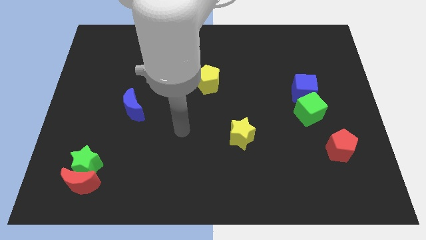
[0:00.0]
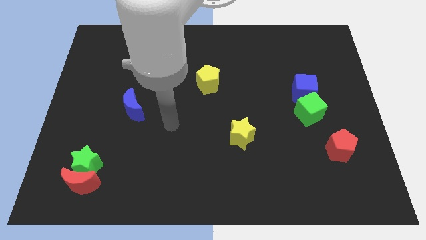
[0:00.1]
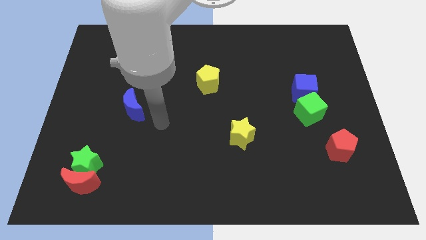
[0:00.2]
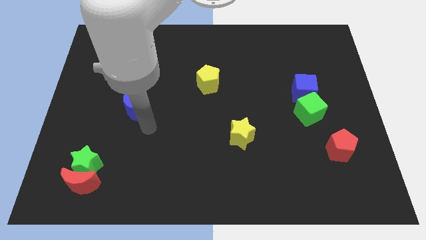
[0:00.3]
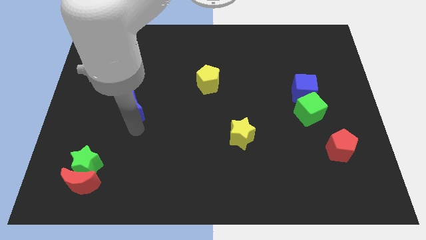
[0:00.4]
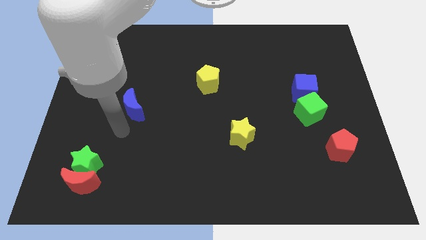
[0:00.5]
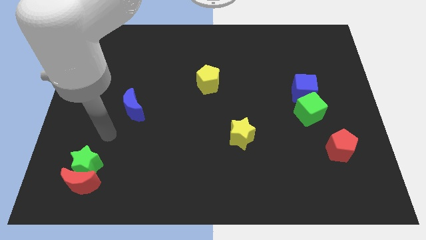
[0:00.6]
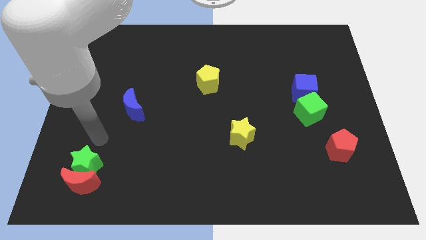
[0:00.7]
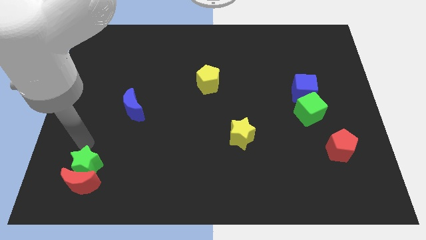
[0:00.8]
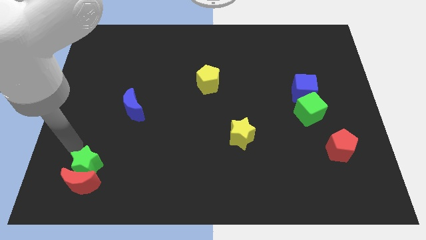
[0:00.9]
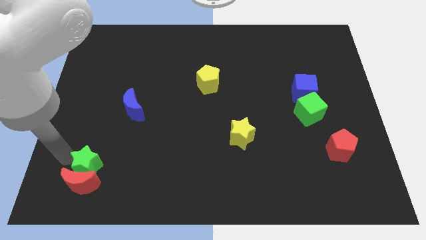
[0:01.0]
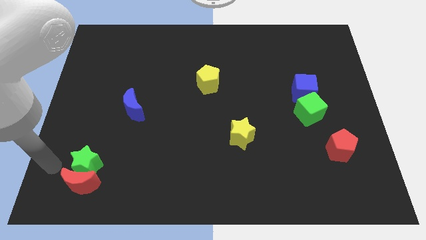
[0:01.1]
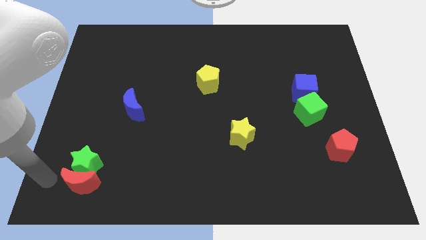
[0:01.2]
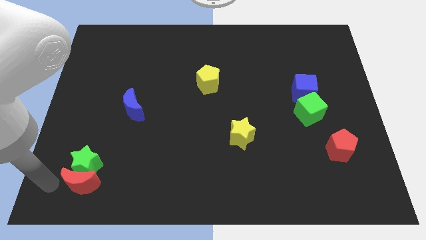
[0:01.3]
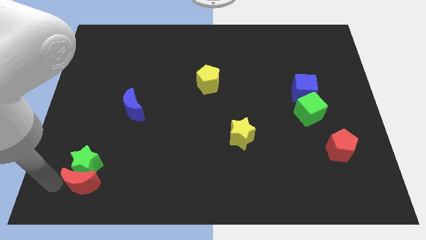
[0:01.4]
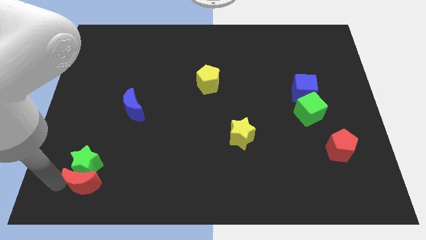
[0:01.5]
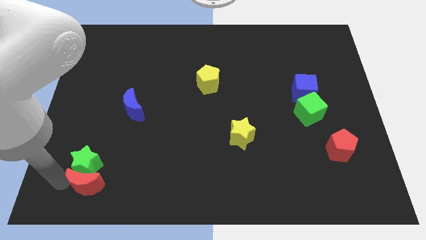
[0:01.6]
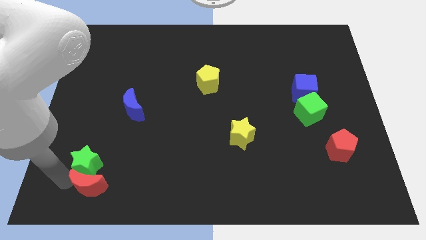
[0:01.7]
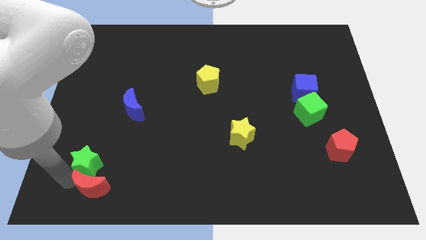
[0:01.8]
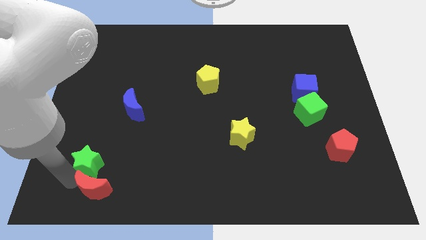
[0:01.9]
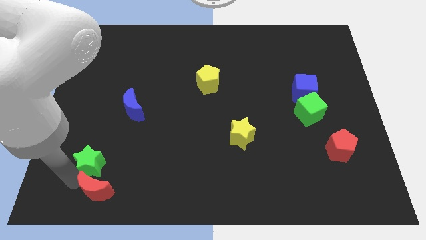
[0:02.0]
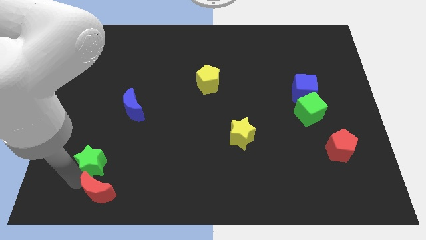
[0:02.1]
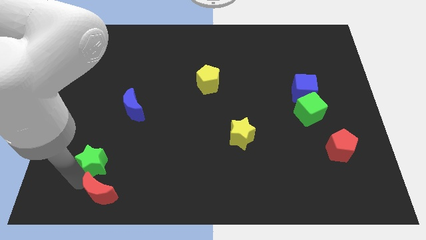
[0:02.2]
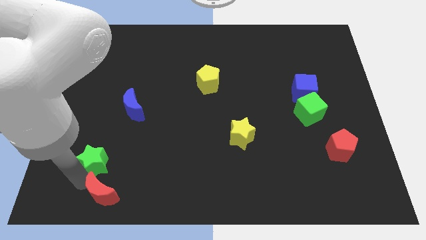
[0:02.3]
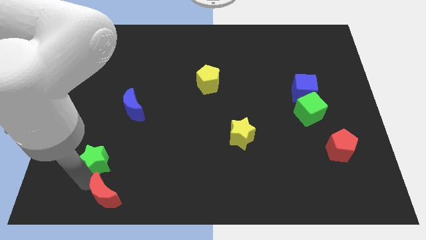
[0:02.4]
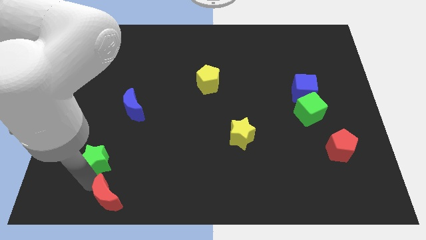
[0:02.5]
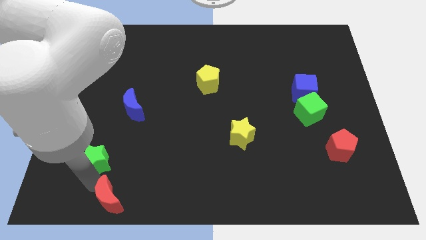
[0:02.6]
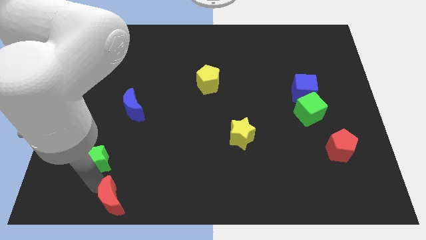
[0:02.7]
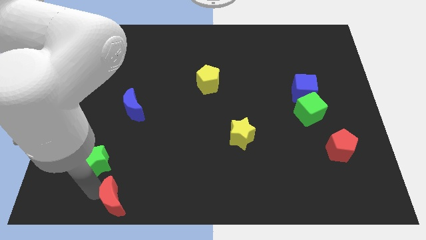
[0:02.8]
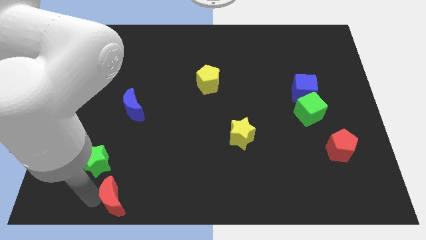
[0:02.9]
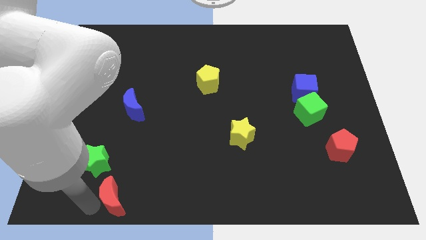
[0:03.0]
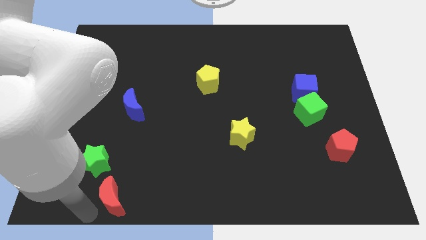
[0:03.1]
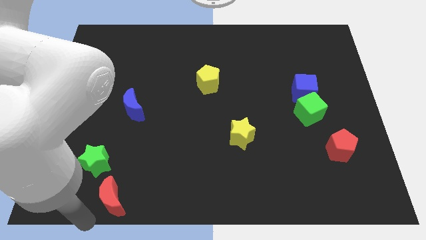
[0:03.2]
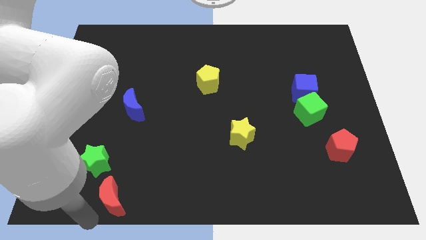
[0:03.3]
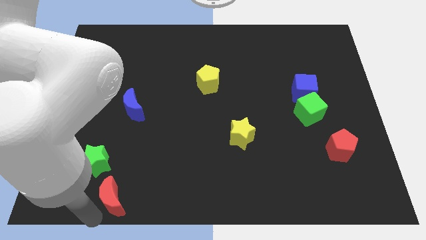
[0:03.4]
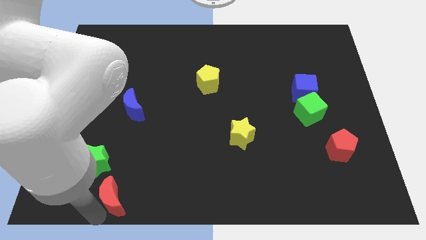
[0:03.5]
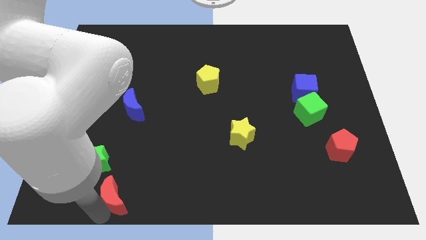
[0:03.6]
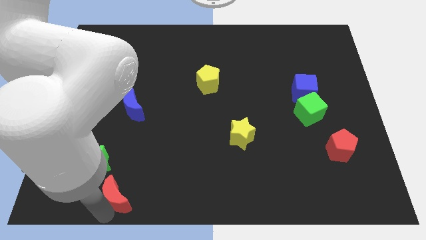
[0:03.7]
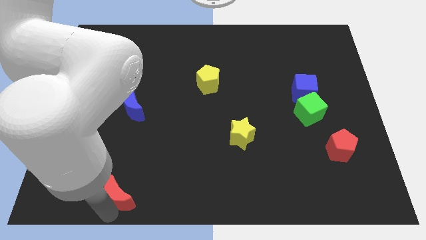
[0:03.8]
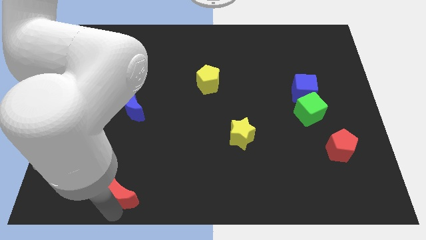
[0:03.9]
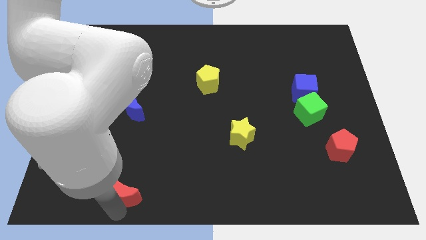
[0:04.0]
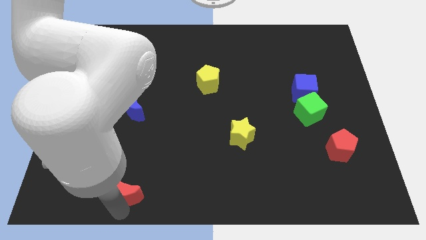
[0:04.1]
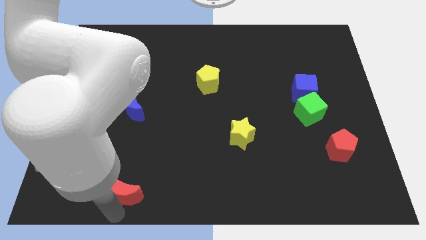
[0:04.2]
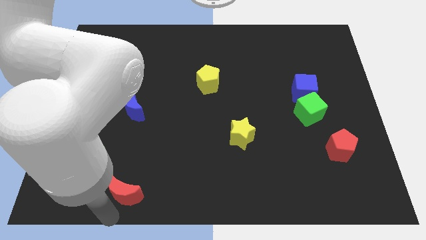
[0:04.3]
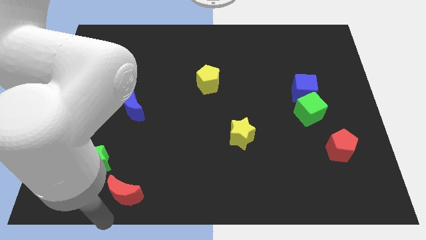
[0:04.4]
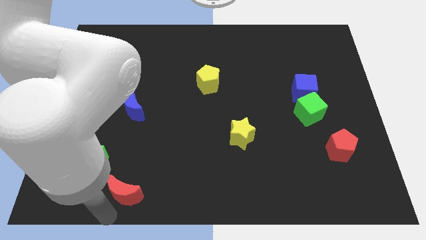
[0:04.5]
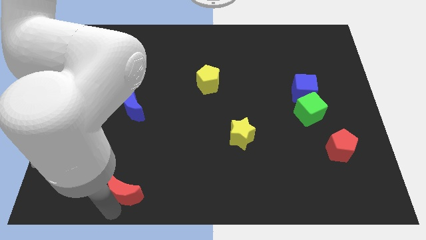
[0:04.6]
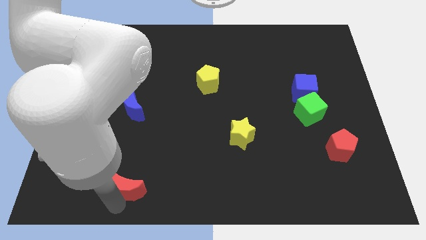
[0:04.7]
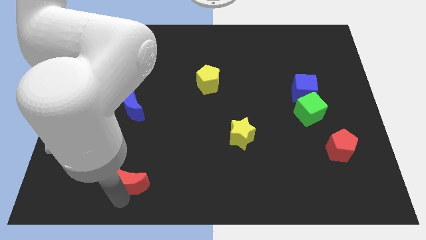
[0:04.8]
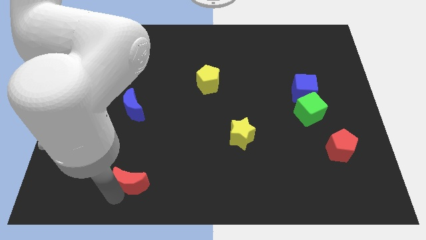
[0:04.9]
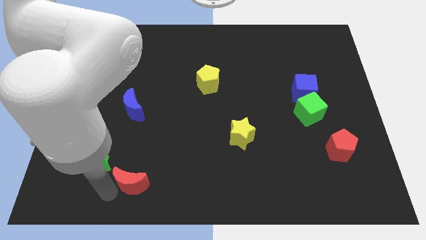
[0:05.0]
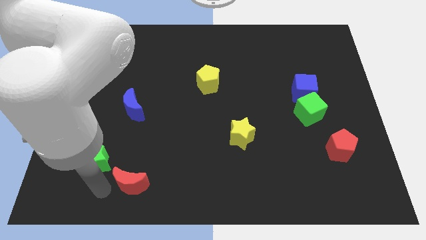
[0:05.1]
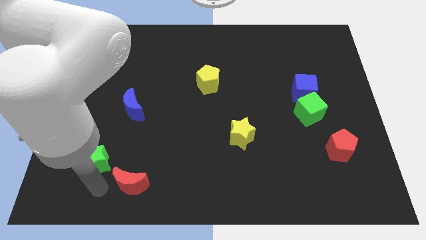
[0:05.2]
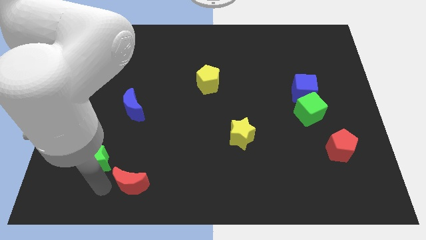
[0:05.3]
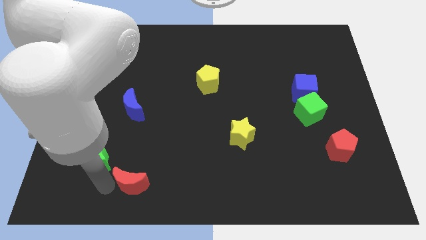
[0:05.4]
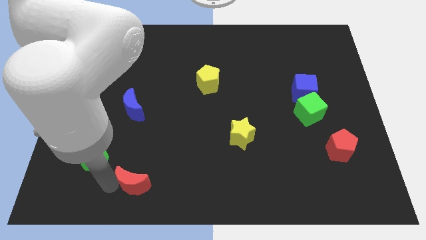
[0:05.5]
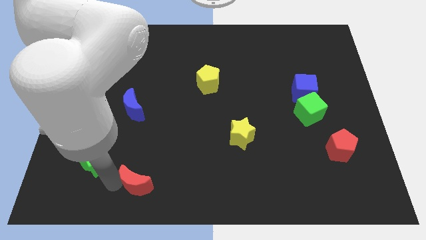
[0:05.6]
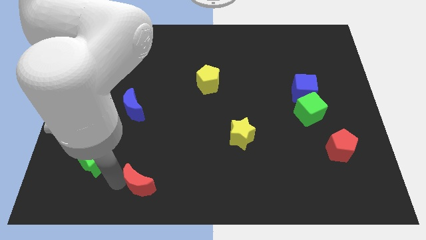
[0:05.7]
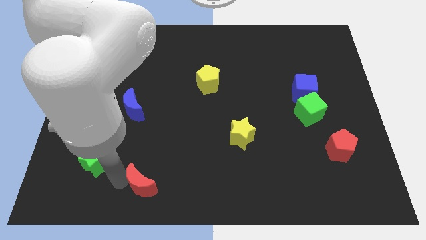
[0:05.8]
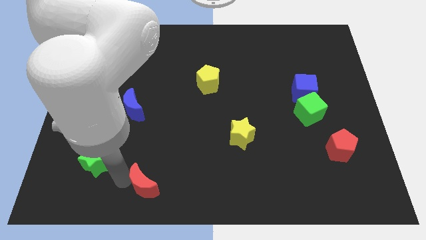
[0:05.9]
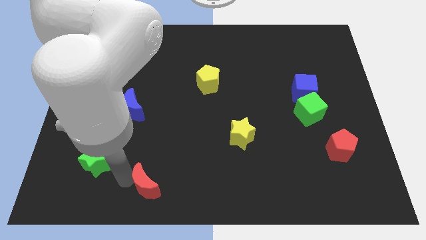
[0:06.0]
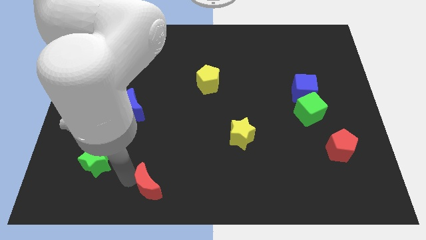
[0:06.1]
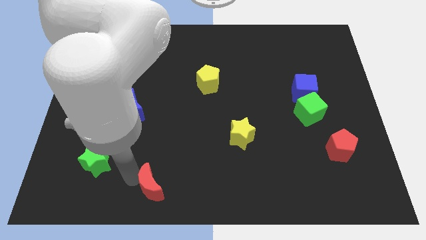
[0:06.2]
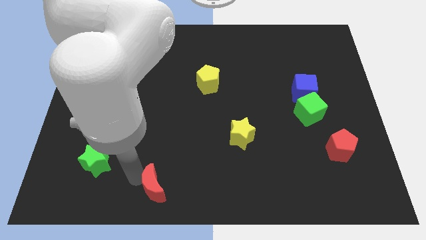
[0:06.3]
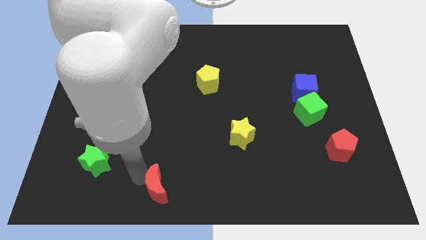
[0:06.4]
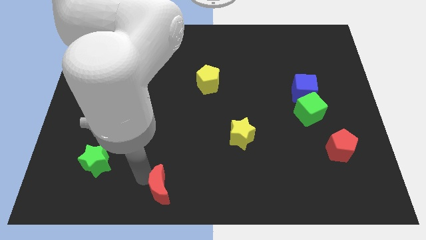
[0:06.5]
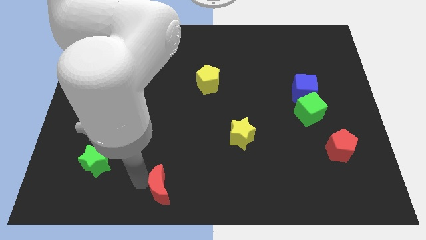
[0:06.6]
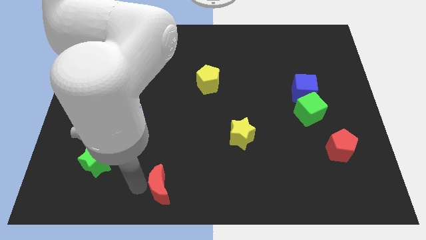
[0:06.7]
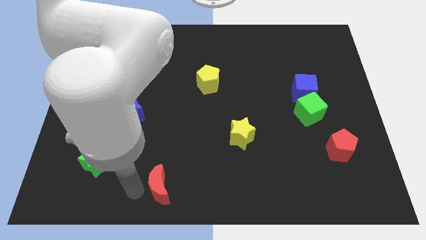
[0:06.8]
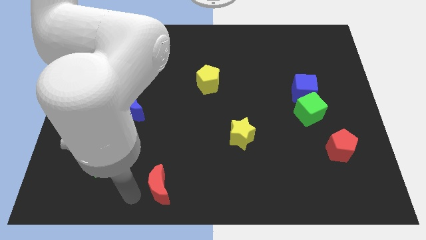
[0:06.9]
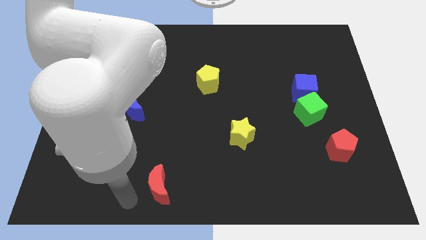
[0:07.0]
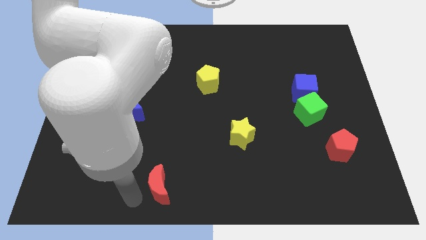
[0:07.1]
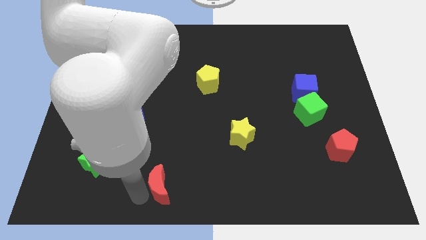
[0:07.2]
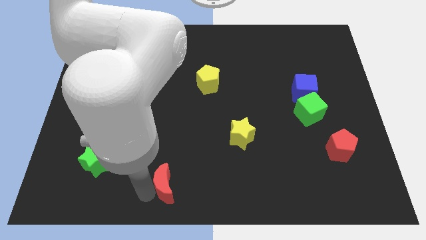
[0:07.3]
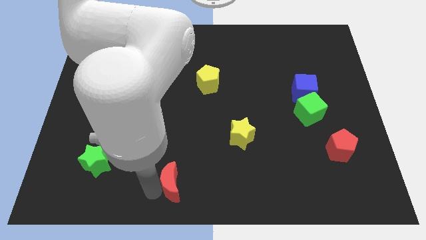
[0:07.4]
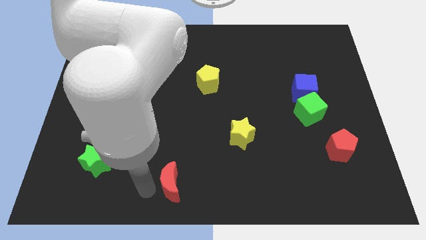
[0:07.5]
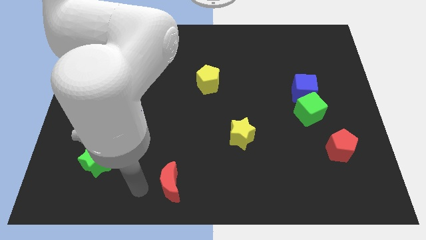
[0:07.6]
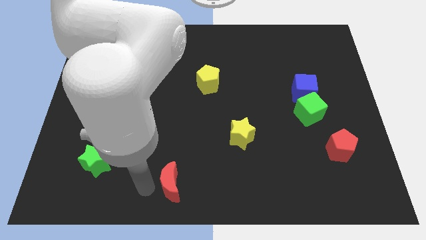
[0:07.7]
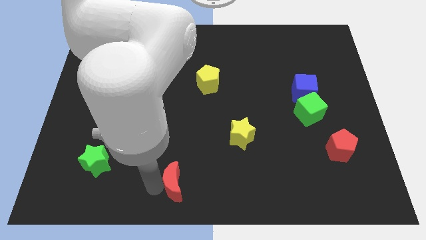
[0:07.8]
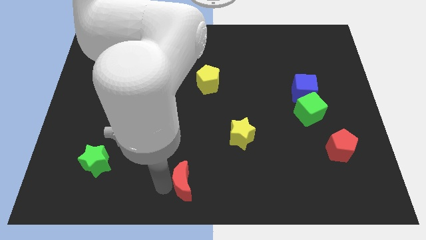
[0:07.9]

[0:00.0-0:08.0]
push the red moon to the right
